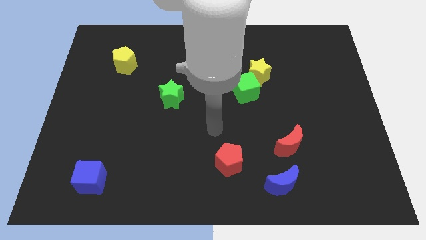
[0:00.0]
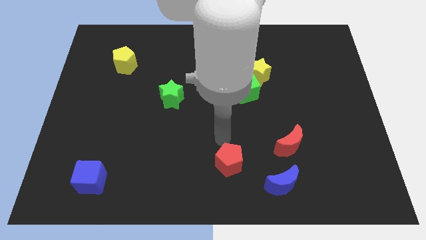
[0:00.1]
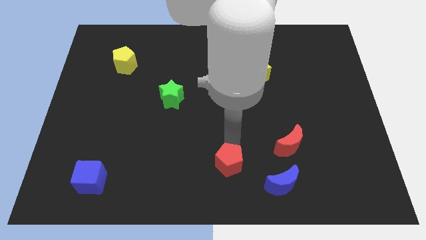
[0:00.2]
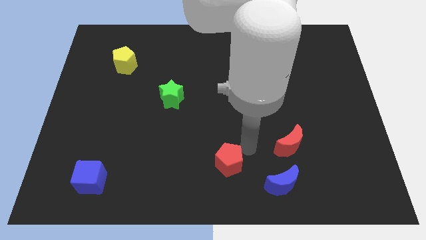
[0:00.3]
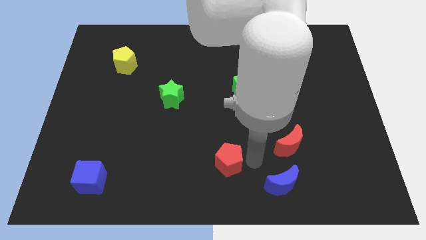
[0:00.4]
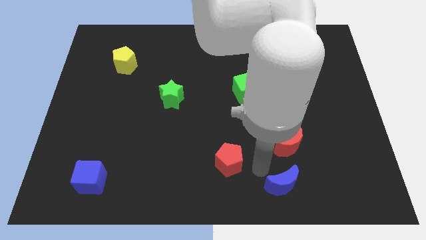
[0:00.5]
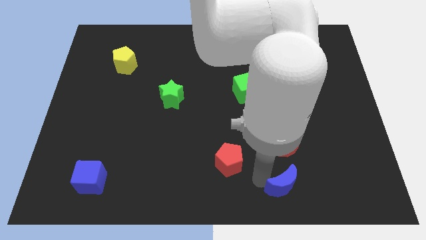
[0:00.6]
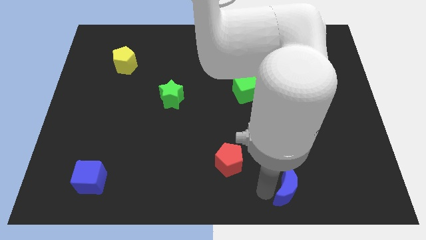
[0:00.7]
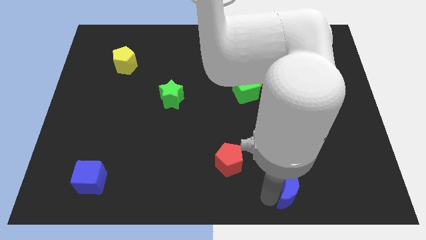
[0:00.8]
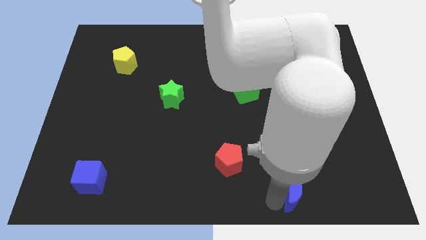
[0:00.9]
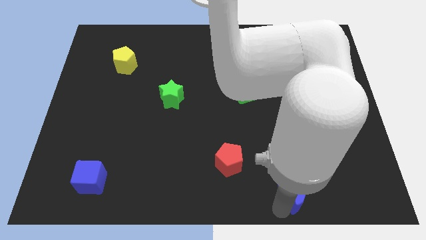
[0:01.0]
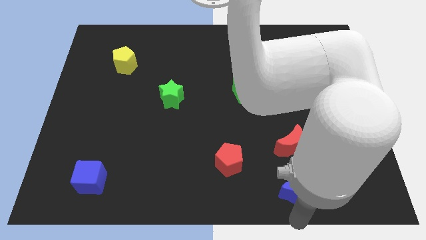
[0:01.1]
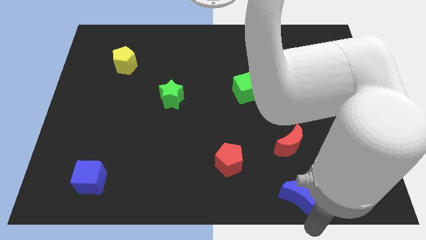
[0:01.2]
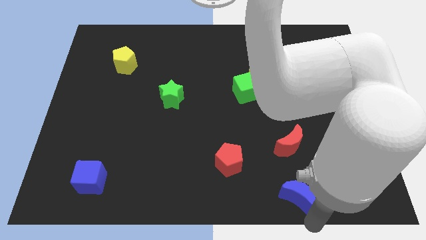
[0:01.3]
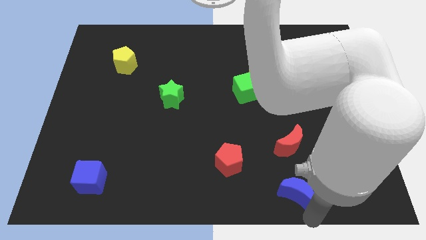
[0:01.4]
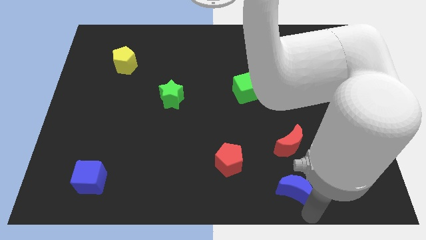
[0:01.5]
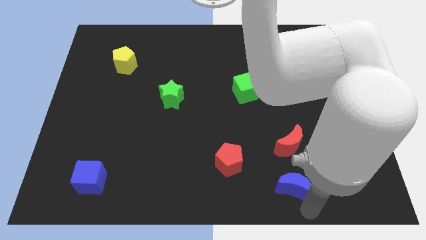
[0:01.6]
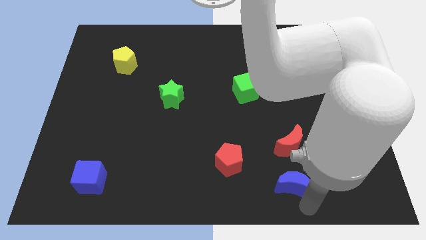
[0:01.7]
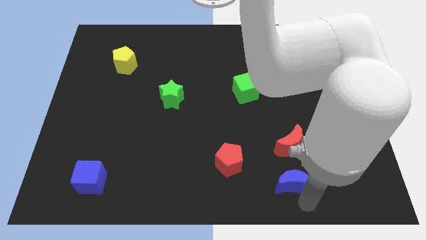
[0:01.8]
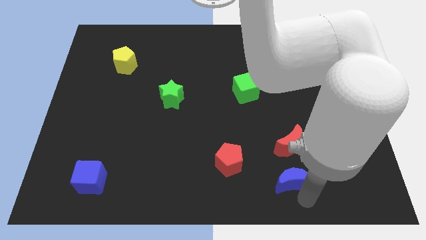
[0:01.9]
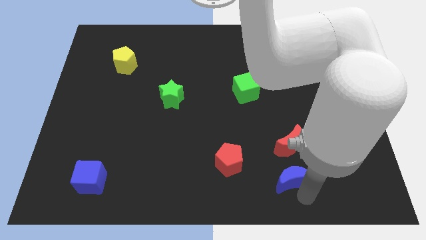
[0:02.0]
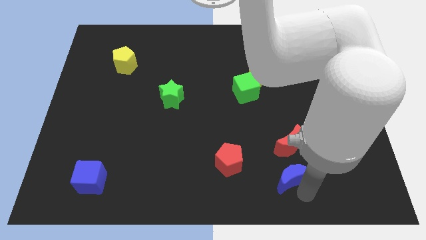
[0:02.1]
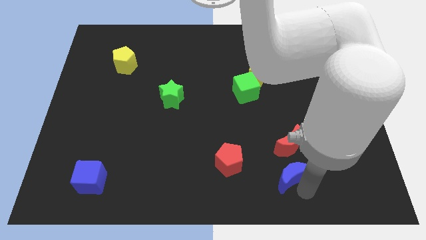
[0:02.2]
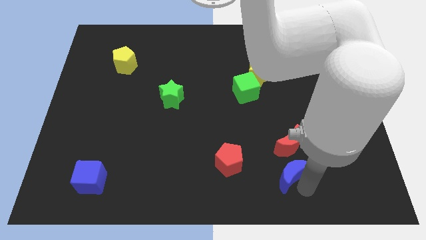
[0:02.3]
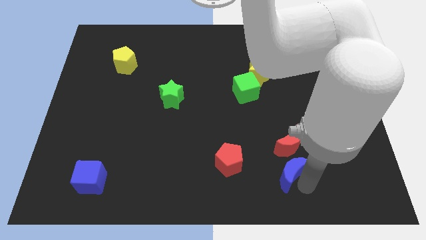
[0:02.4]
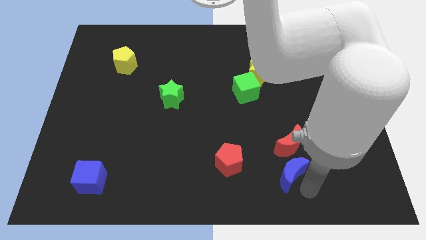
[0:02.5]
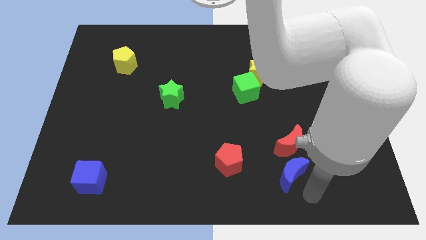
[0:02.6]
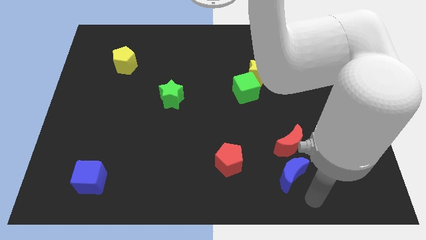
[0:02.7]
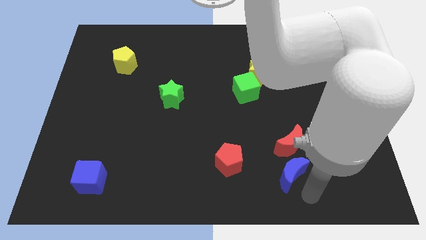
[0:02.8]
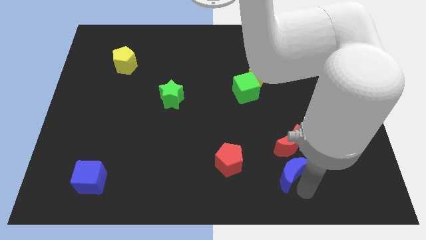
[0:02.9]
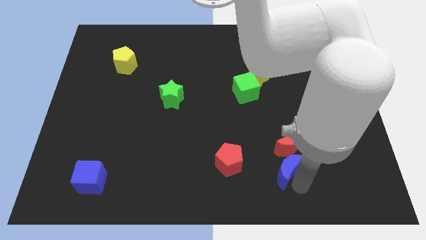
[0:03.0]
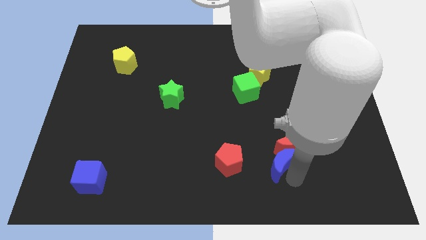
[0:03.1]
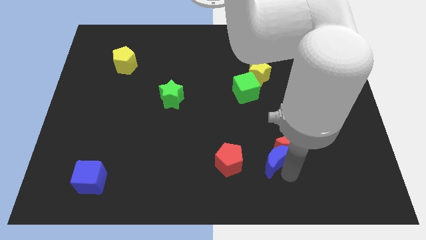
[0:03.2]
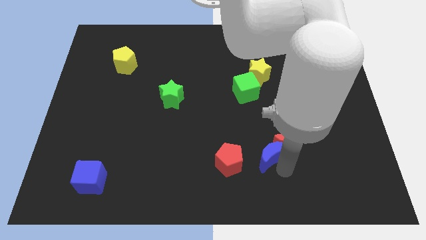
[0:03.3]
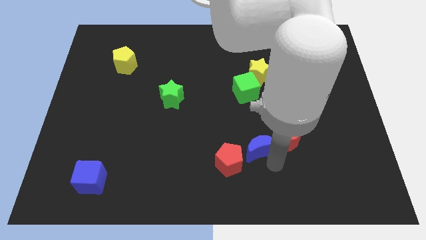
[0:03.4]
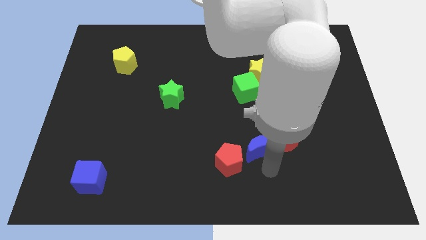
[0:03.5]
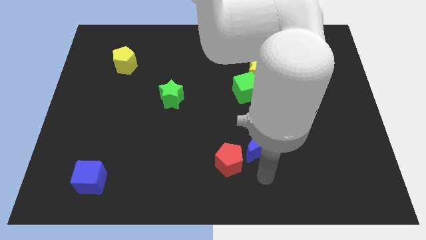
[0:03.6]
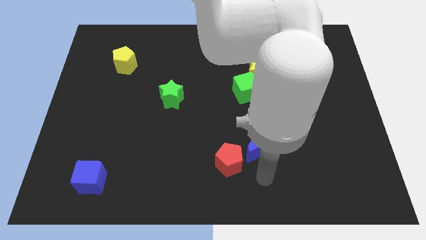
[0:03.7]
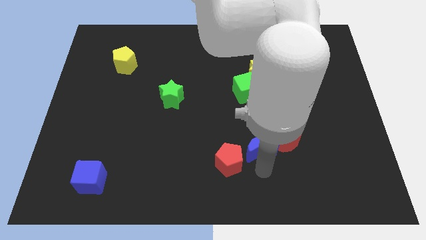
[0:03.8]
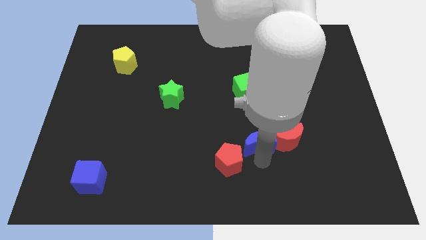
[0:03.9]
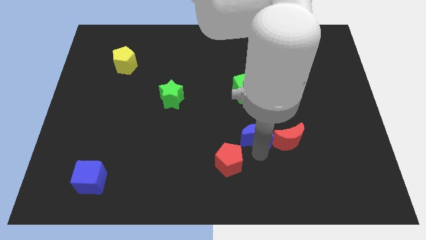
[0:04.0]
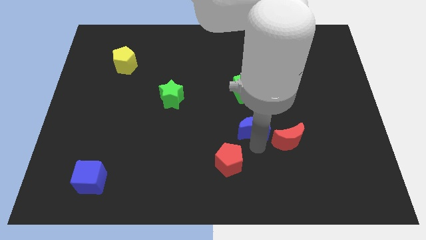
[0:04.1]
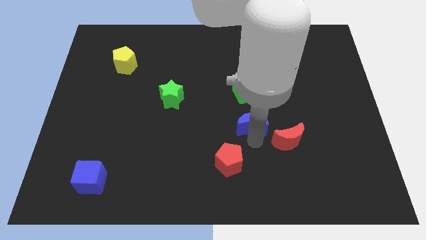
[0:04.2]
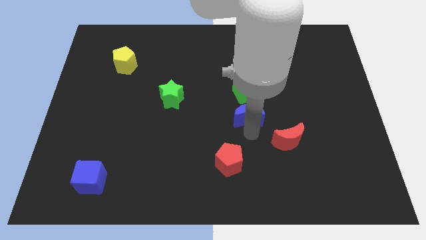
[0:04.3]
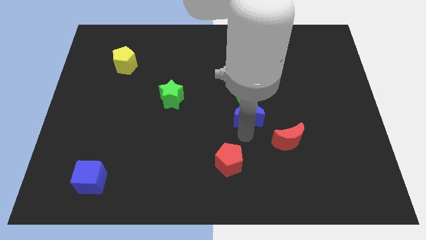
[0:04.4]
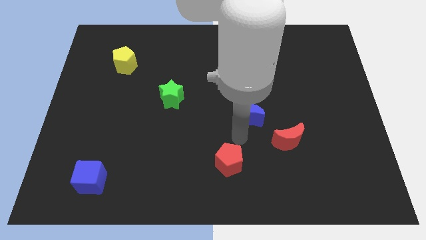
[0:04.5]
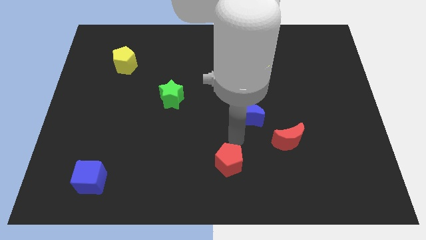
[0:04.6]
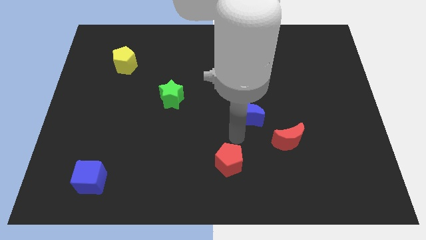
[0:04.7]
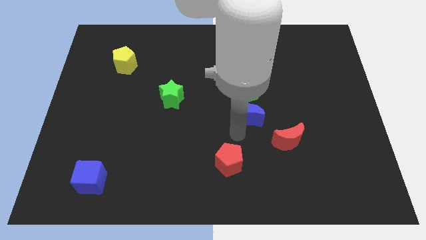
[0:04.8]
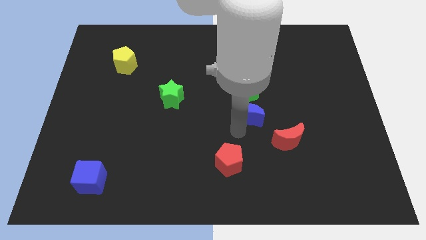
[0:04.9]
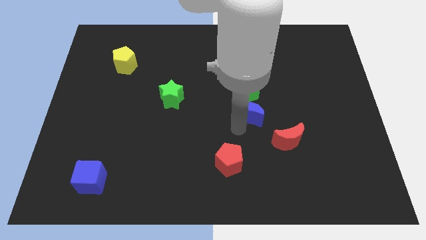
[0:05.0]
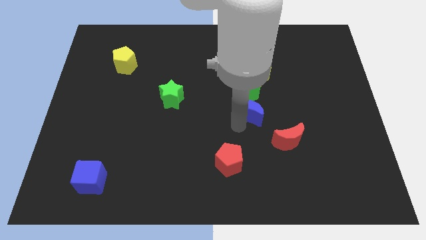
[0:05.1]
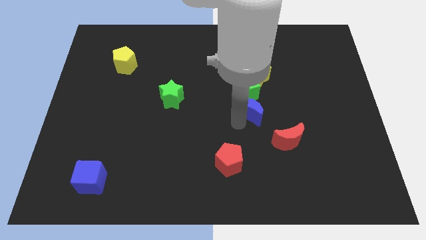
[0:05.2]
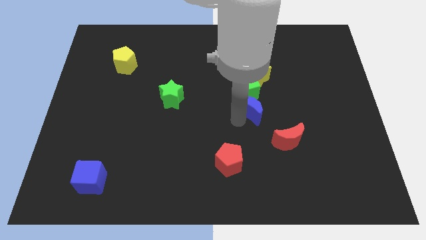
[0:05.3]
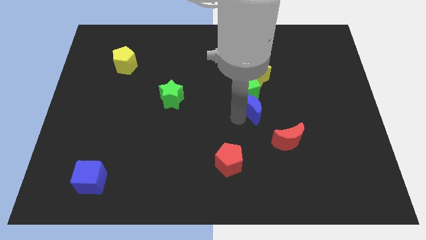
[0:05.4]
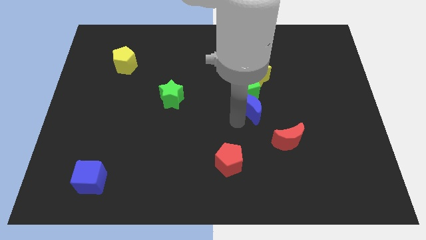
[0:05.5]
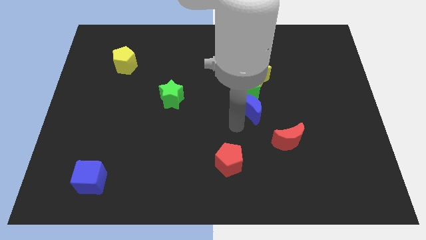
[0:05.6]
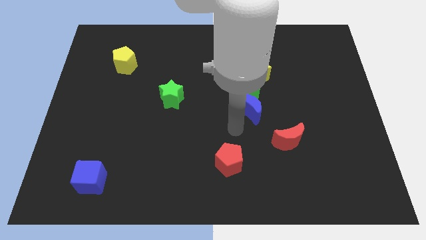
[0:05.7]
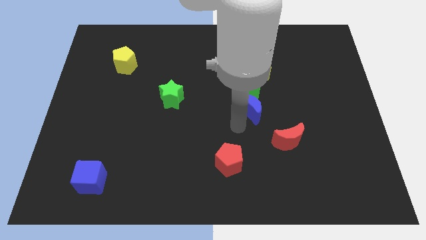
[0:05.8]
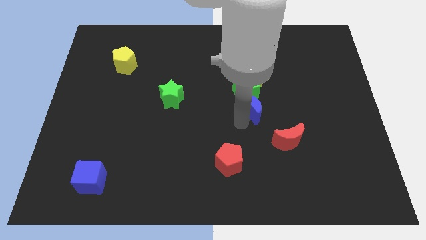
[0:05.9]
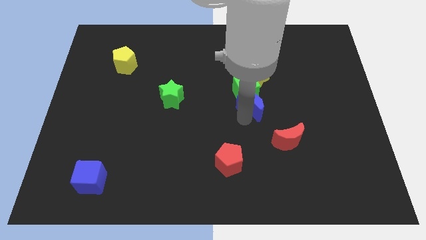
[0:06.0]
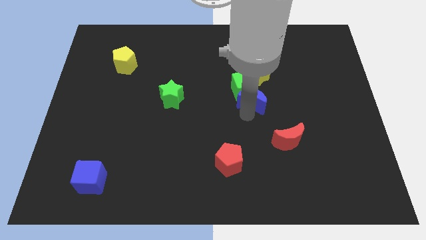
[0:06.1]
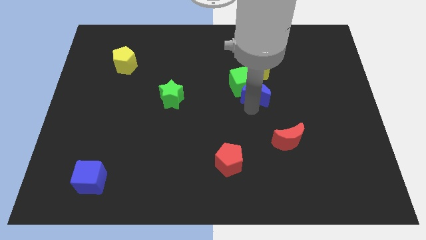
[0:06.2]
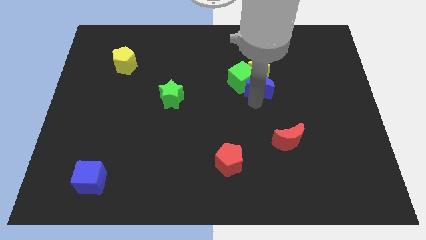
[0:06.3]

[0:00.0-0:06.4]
move the blue moon to the yellow star

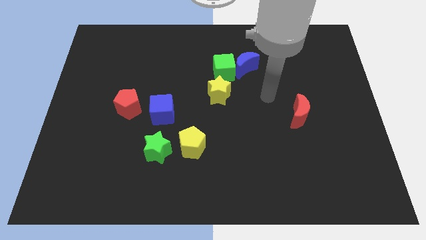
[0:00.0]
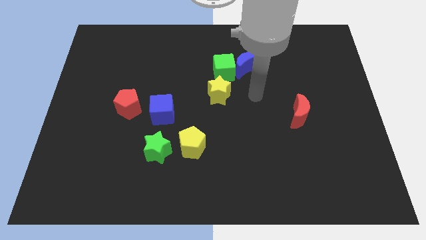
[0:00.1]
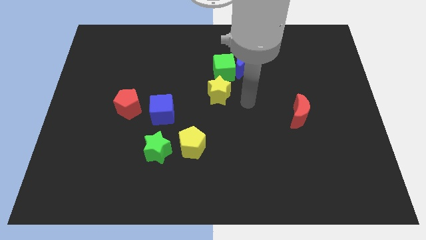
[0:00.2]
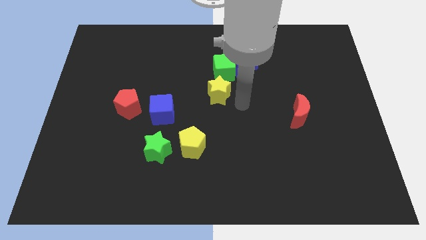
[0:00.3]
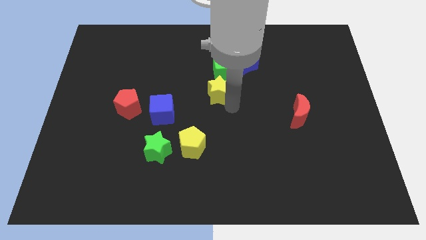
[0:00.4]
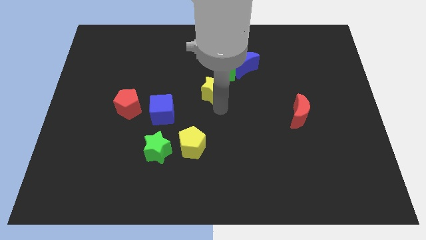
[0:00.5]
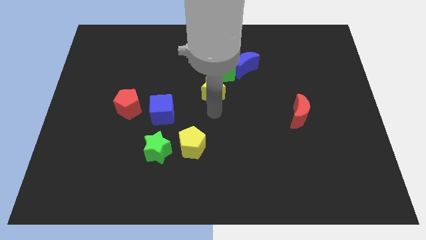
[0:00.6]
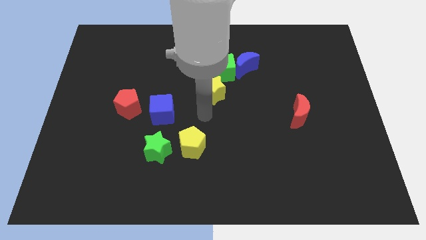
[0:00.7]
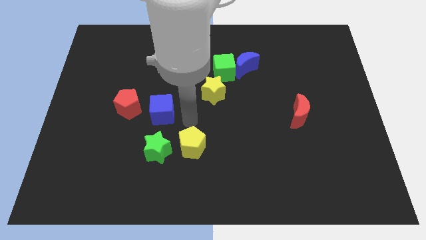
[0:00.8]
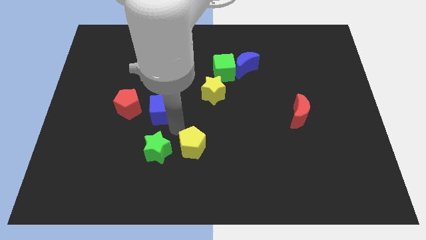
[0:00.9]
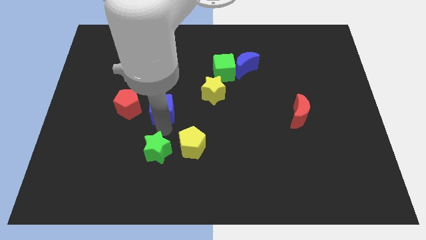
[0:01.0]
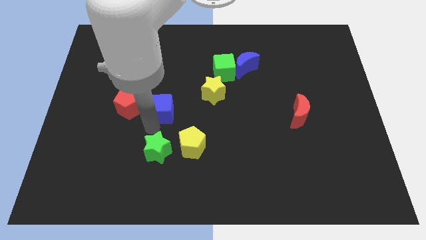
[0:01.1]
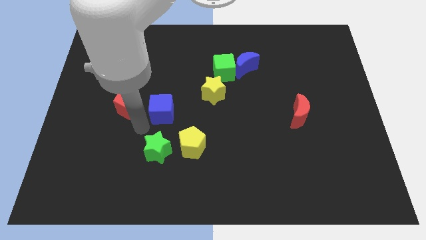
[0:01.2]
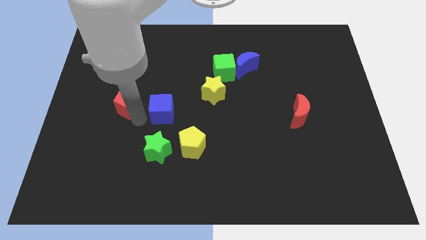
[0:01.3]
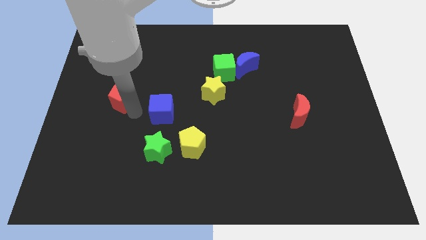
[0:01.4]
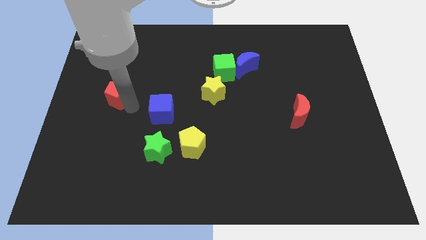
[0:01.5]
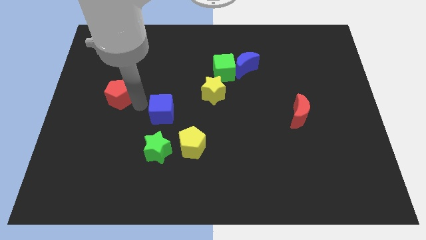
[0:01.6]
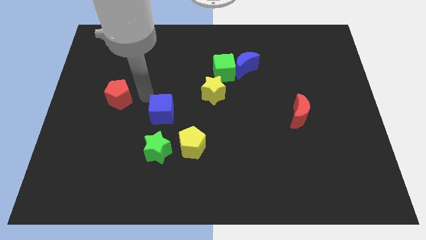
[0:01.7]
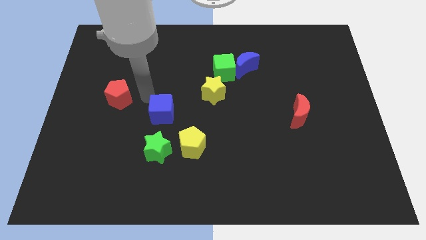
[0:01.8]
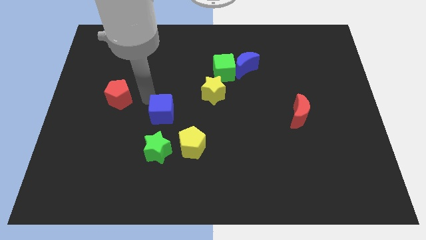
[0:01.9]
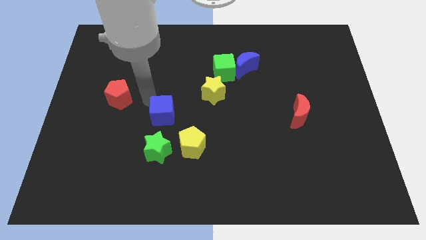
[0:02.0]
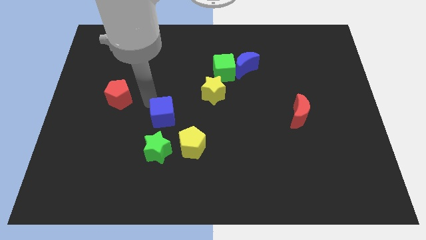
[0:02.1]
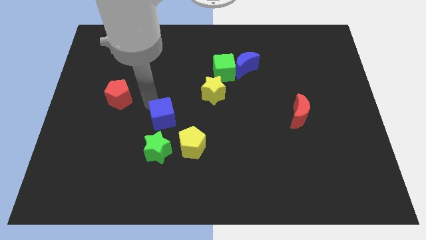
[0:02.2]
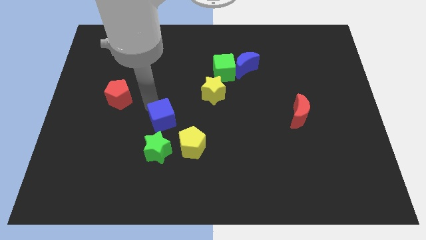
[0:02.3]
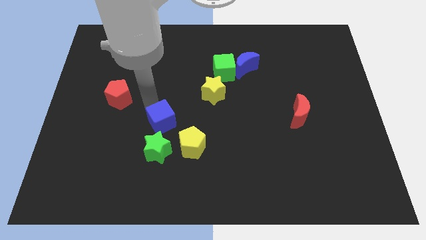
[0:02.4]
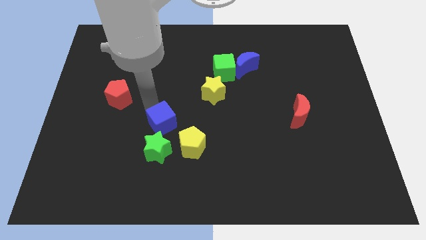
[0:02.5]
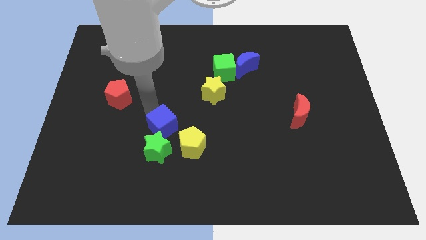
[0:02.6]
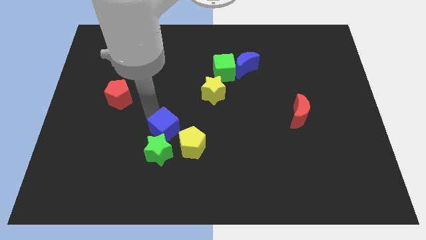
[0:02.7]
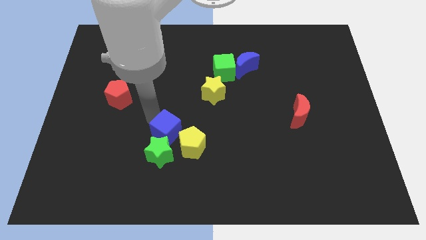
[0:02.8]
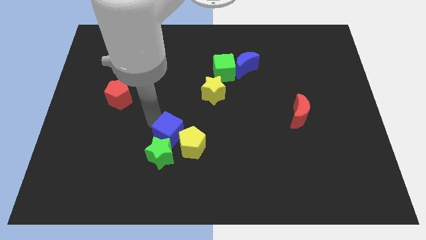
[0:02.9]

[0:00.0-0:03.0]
push the blue cube towards the yellow pentagon
